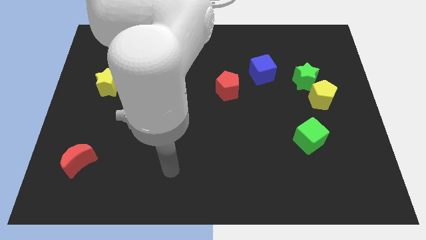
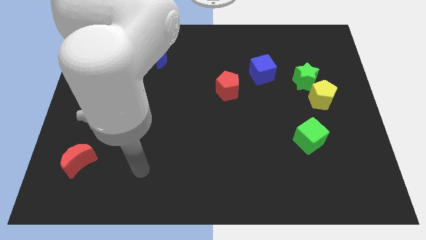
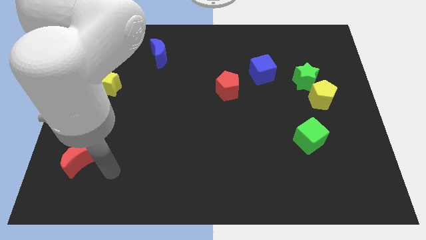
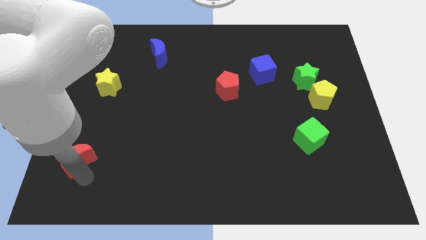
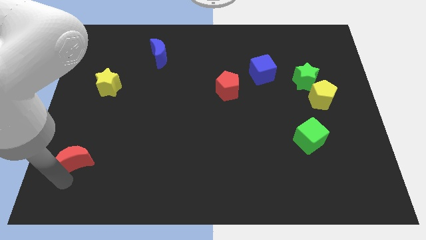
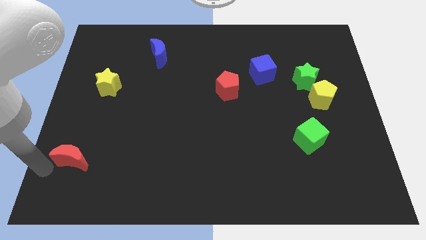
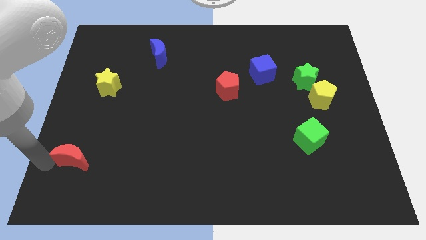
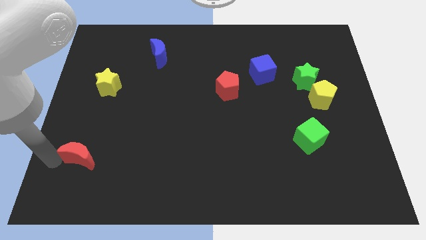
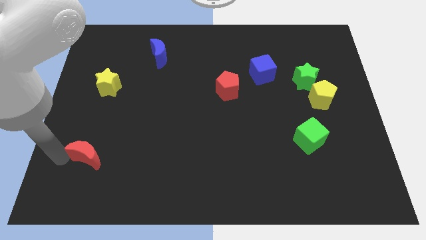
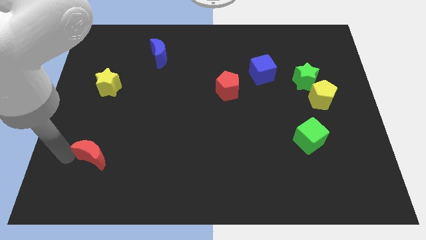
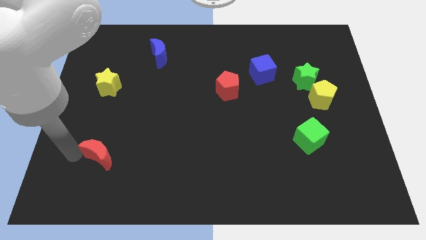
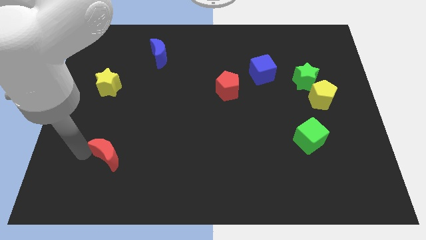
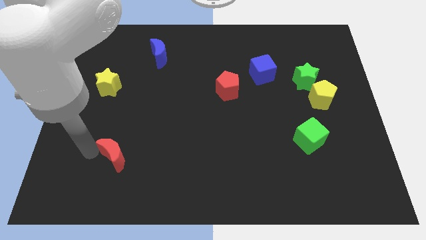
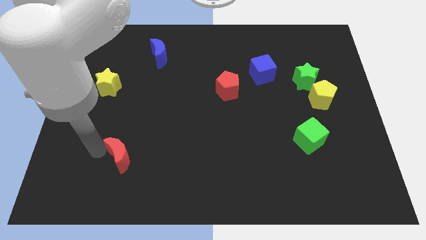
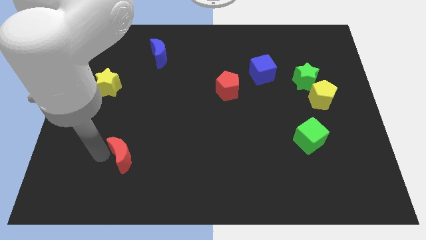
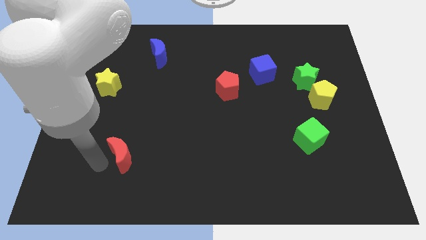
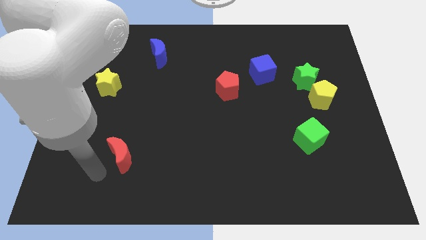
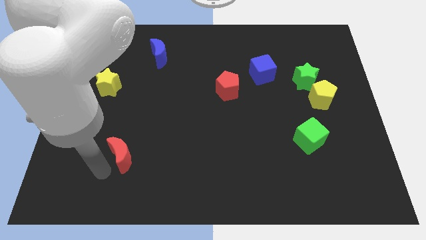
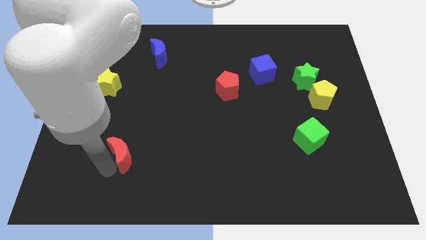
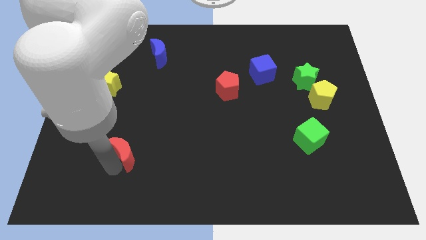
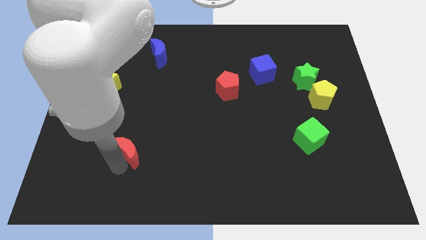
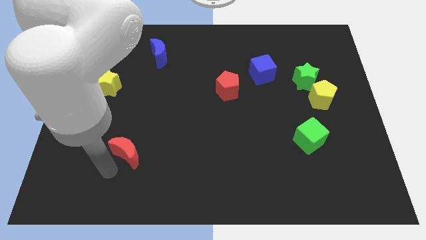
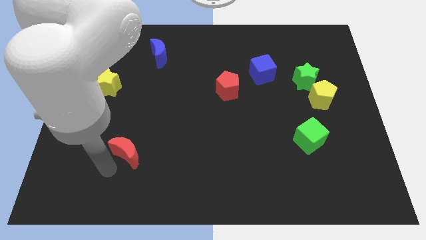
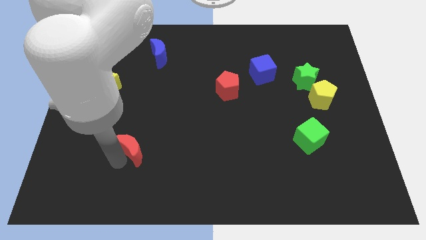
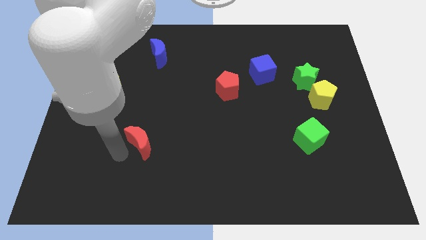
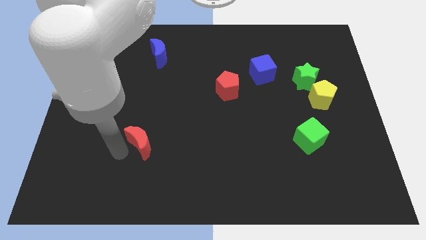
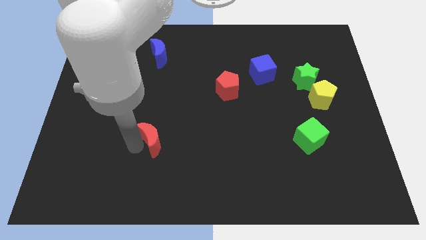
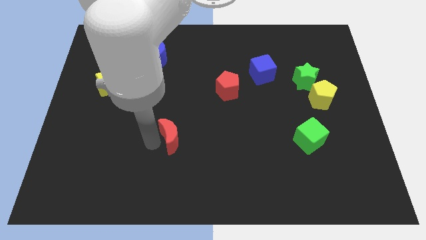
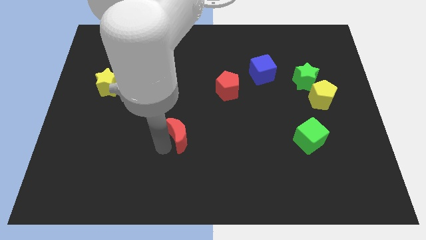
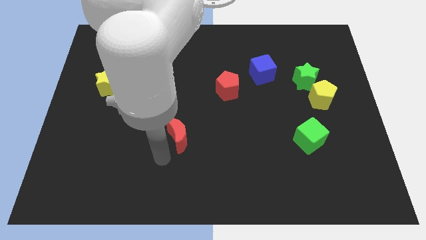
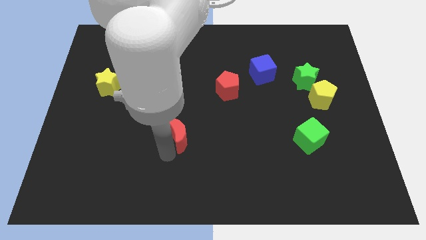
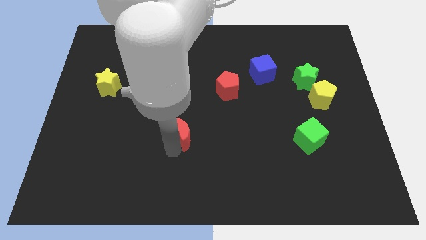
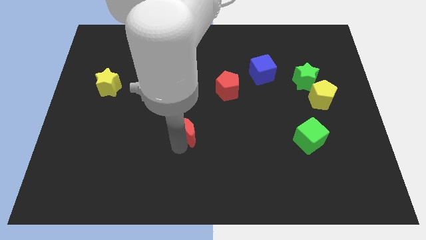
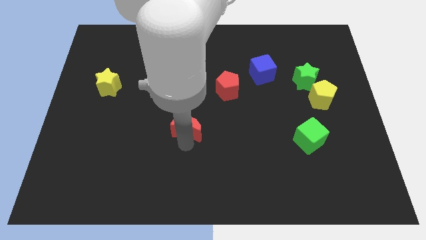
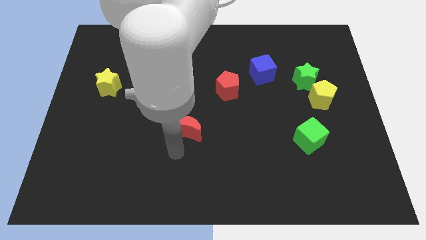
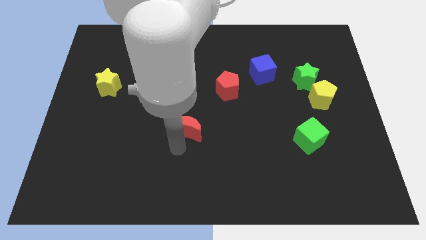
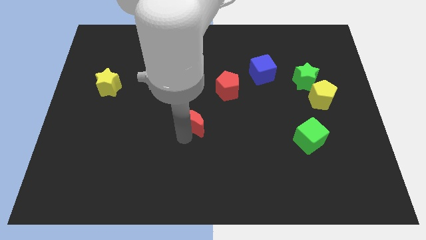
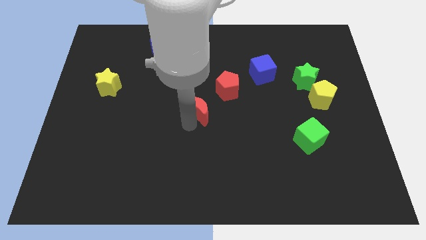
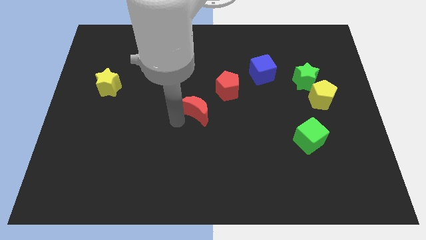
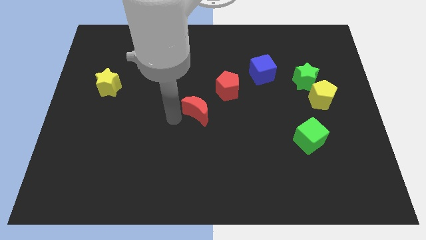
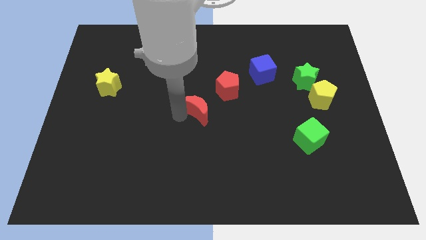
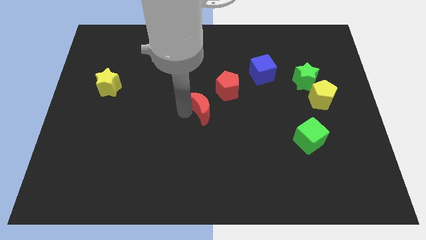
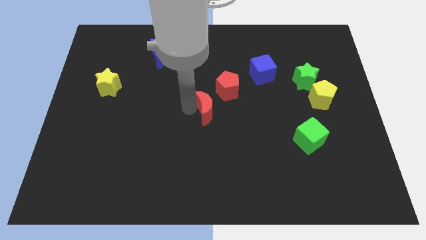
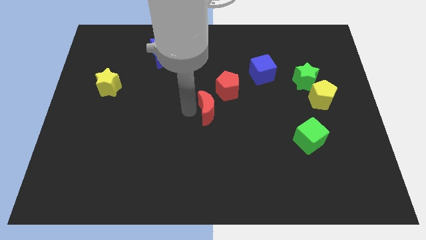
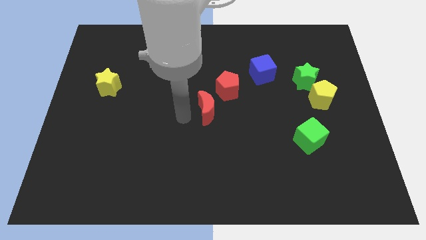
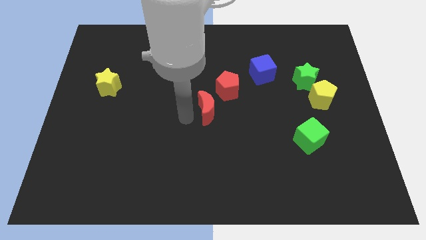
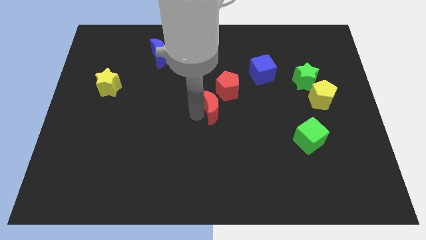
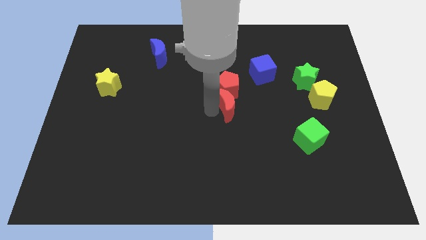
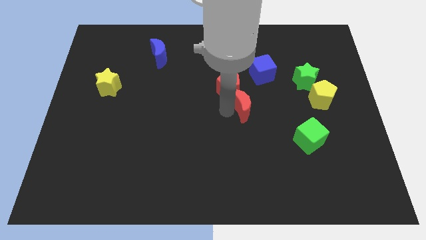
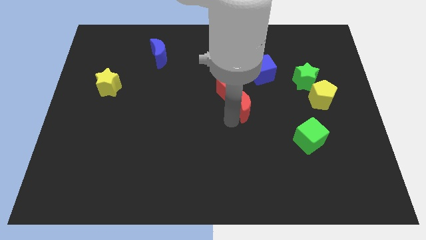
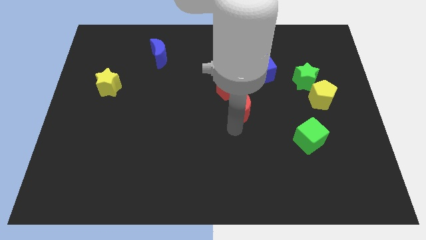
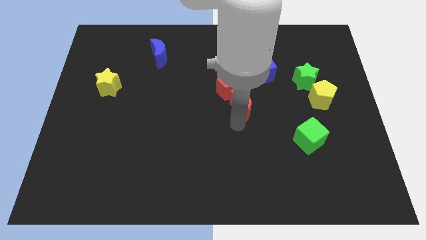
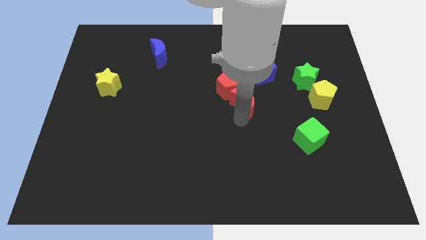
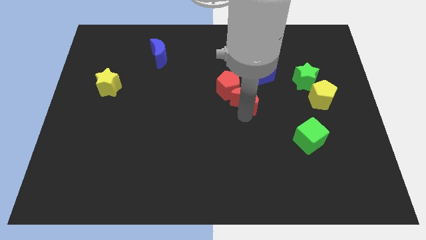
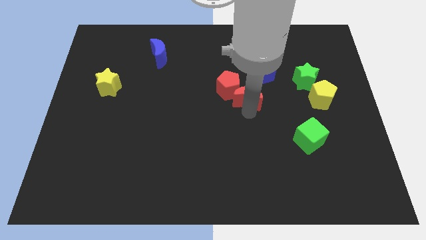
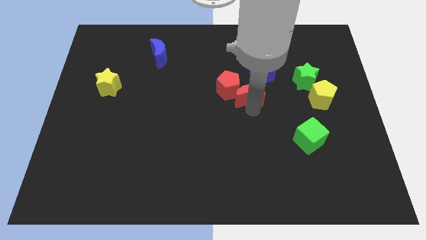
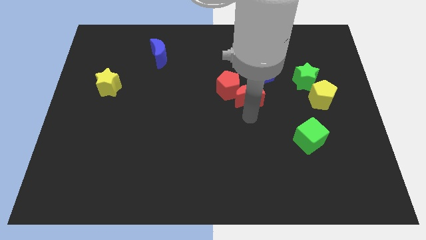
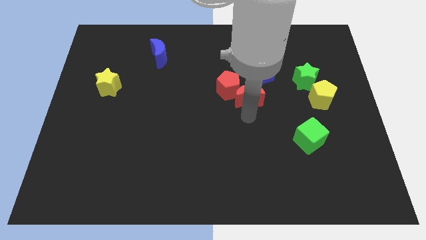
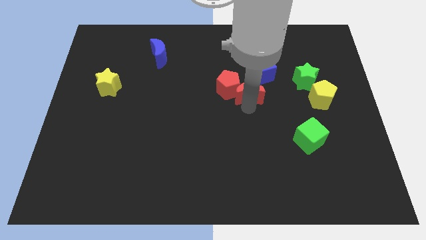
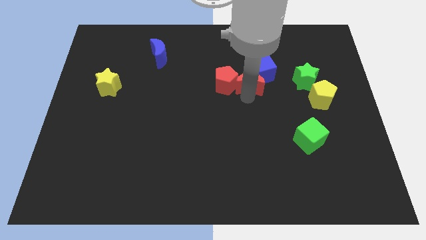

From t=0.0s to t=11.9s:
slide the red moon close to the blue cube

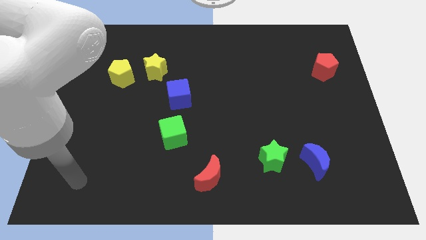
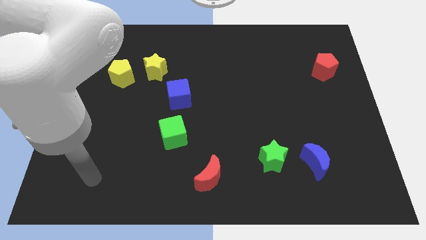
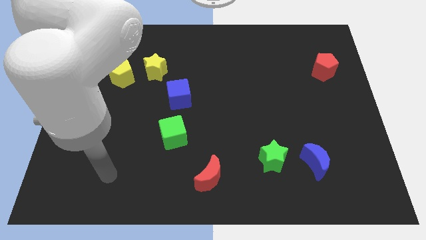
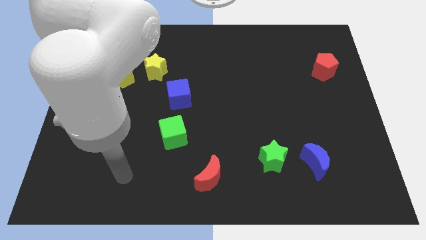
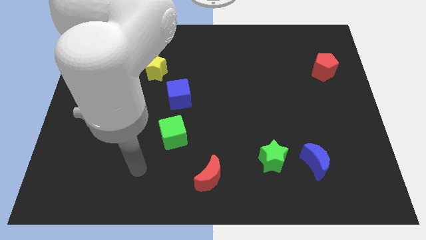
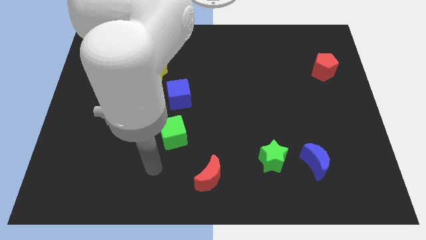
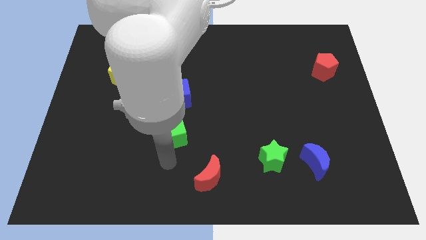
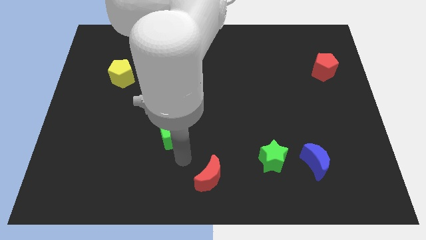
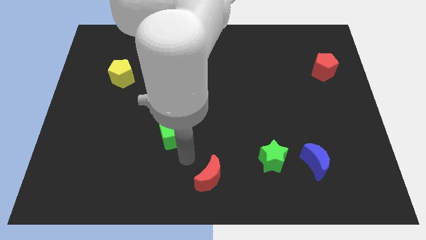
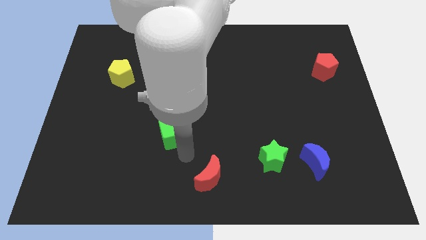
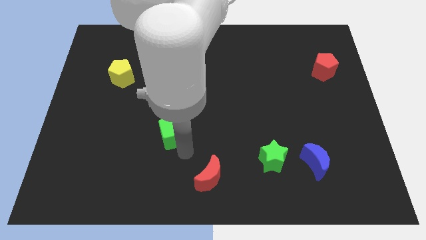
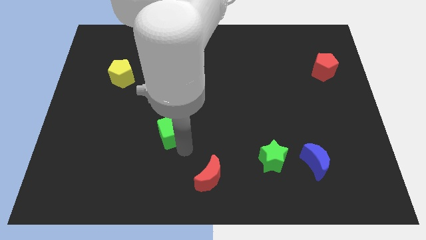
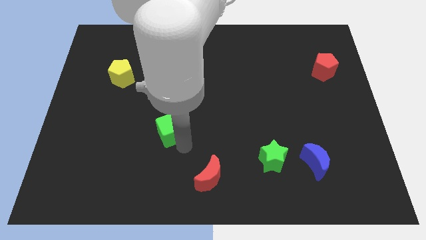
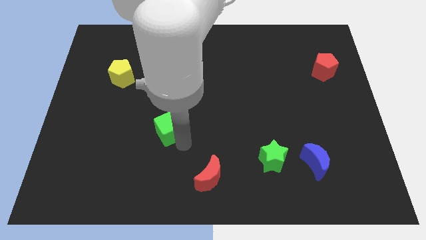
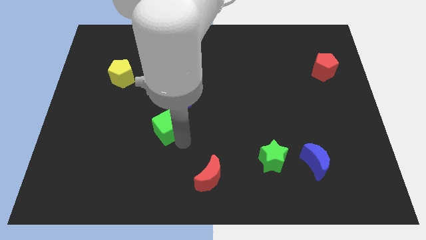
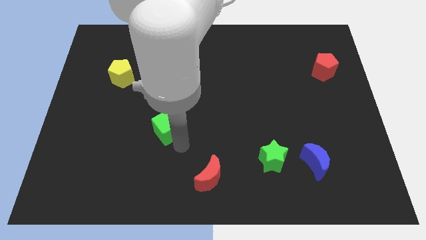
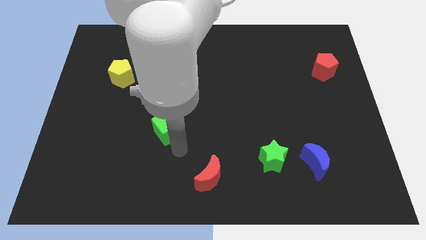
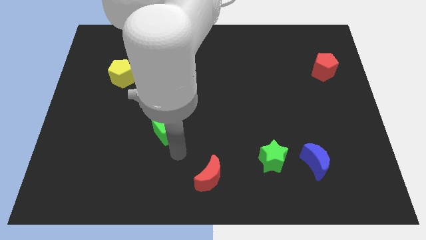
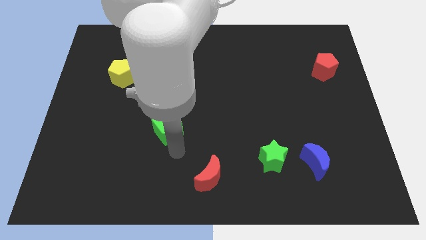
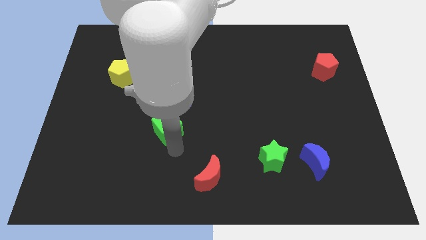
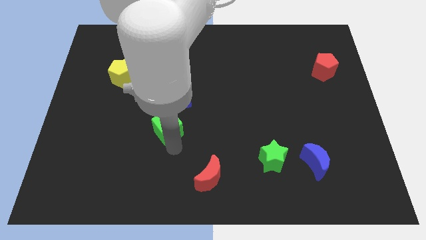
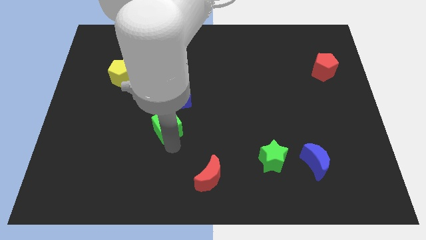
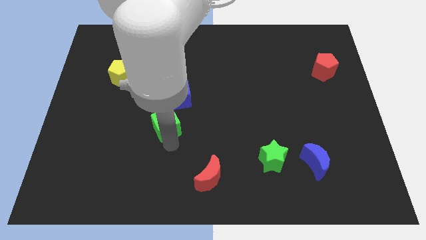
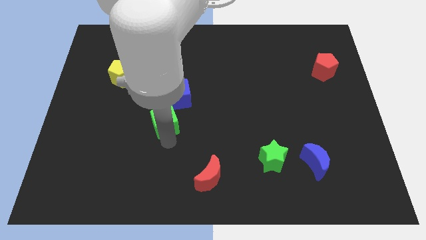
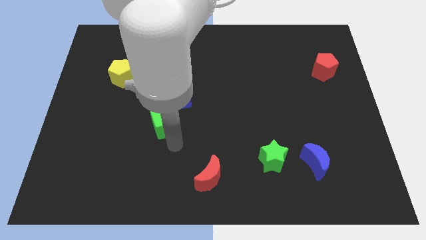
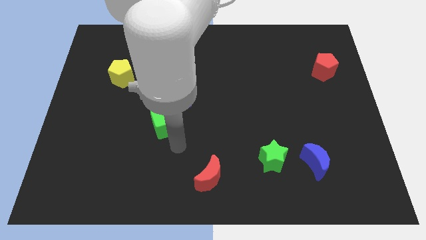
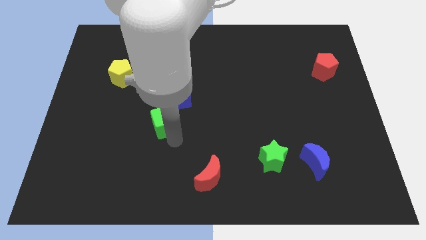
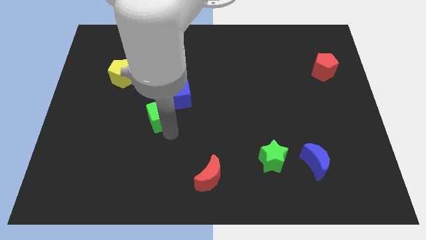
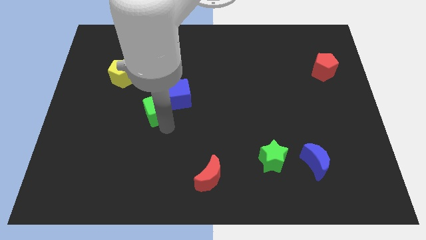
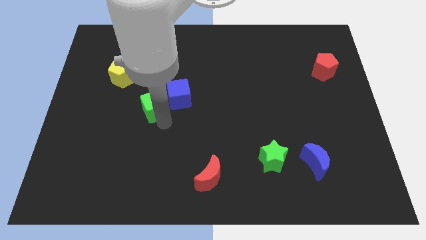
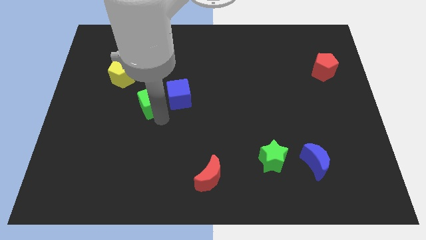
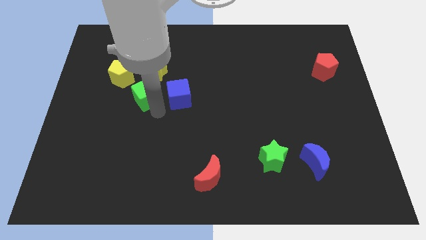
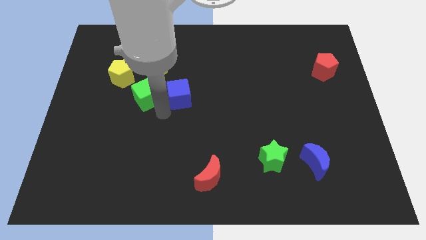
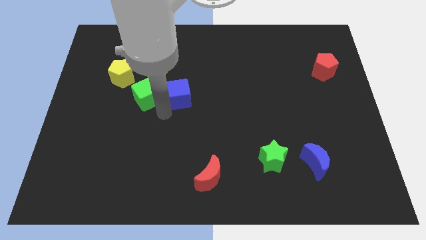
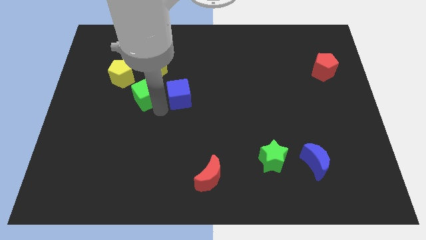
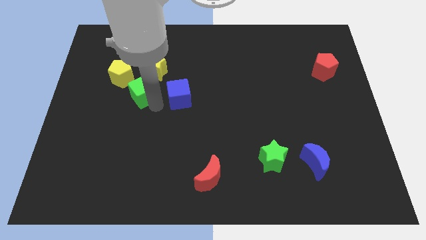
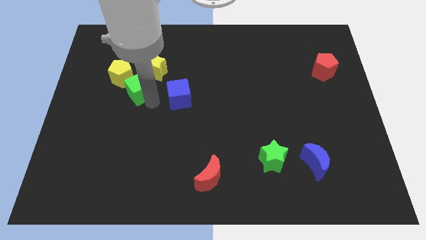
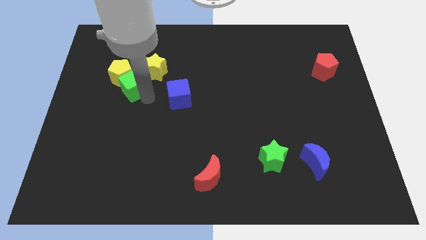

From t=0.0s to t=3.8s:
slide the green cube next to the yellow pentagon
